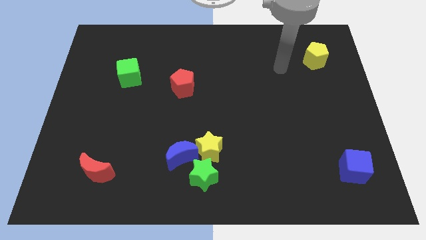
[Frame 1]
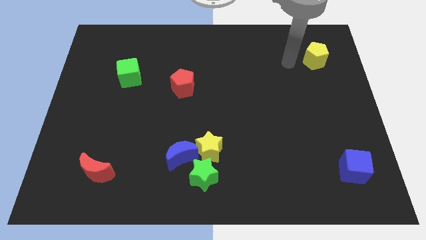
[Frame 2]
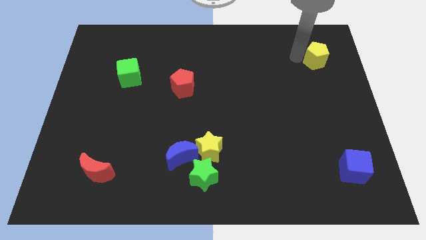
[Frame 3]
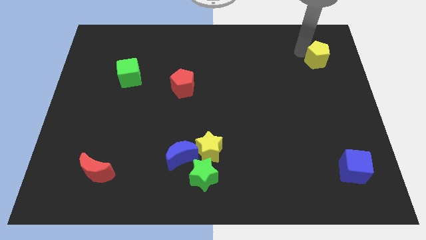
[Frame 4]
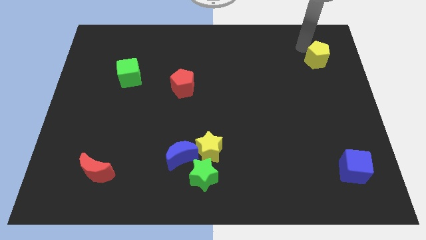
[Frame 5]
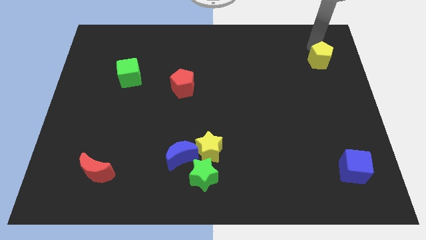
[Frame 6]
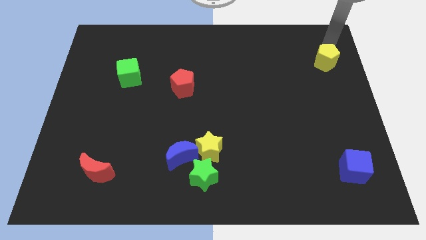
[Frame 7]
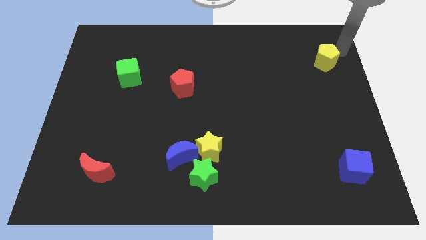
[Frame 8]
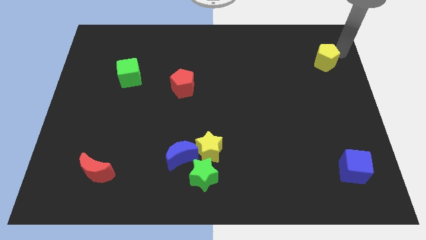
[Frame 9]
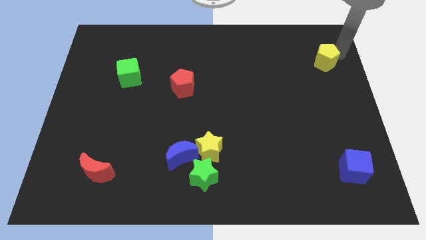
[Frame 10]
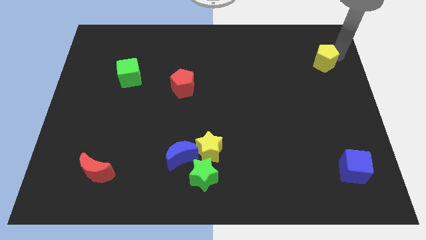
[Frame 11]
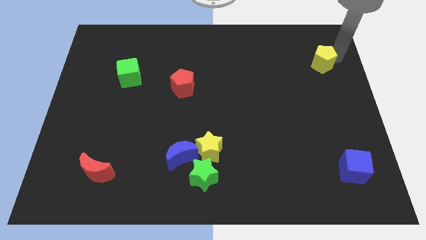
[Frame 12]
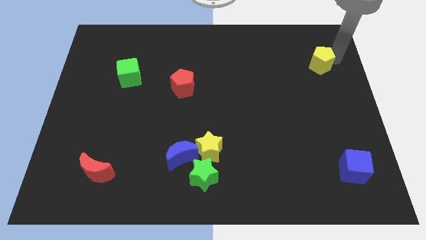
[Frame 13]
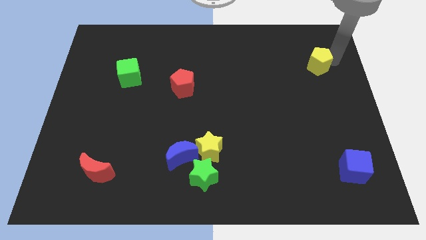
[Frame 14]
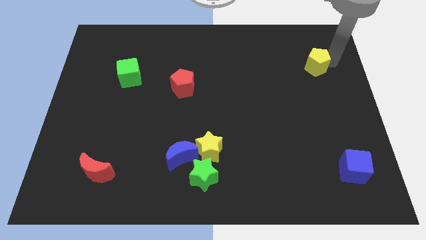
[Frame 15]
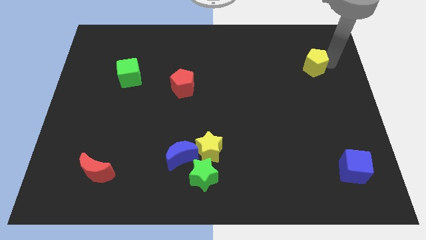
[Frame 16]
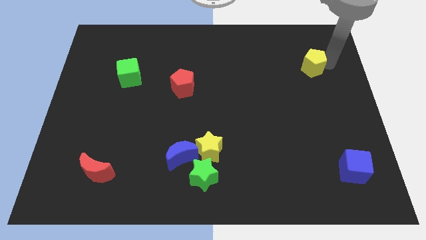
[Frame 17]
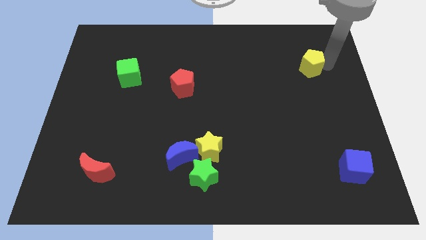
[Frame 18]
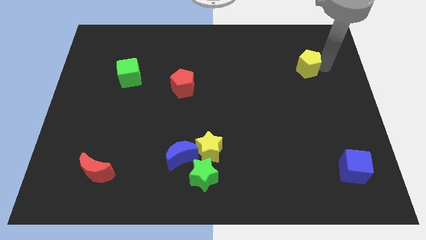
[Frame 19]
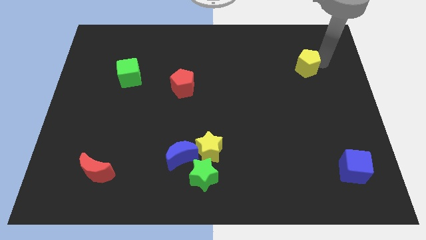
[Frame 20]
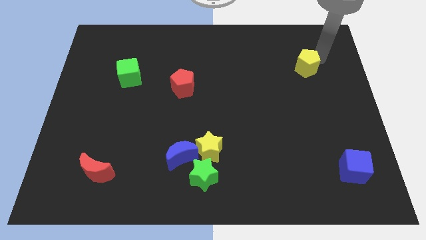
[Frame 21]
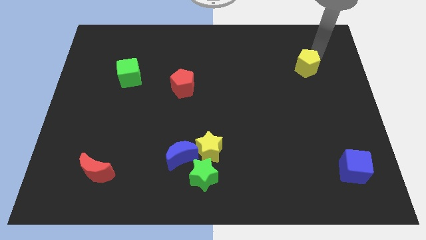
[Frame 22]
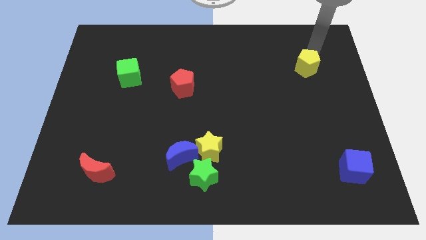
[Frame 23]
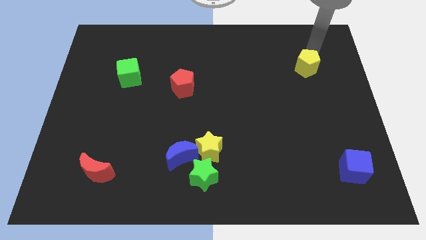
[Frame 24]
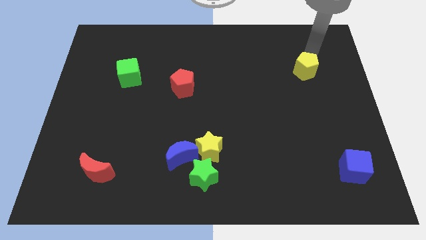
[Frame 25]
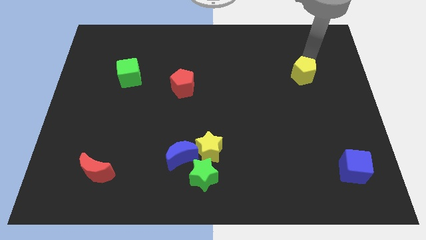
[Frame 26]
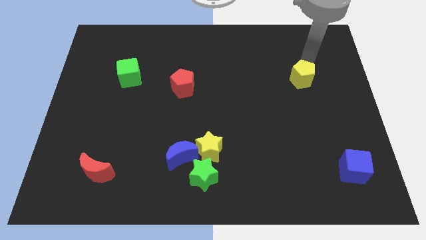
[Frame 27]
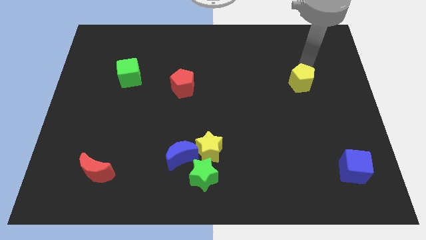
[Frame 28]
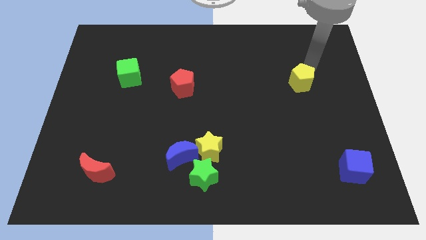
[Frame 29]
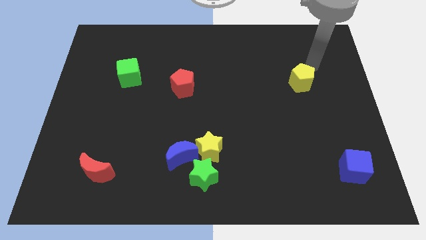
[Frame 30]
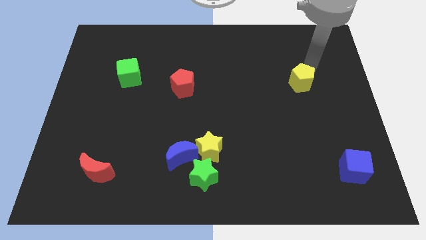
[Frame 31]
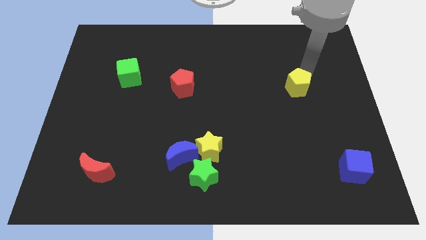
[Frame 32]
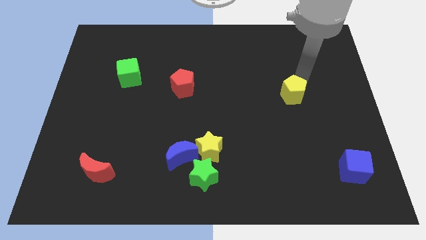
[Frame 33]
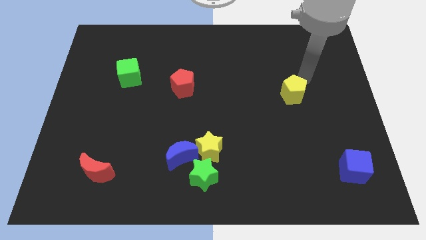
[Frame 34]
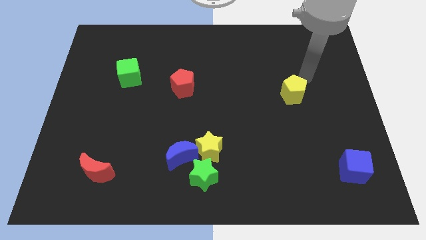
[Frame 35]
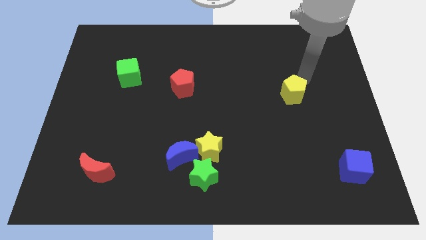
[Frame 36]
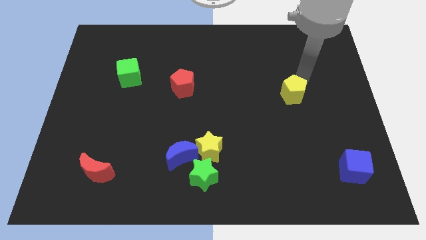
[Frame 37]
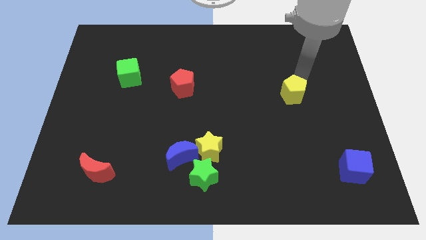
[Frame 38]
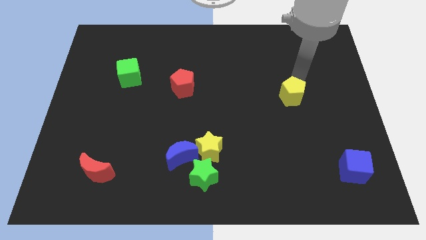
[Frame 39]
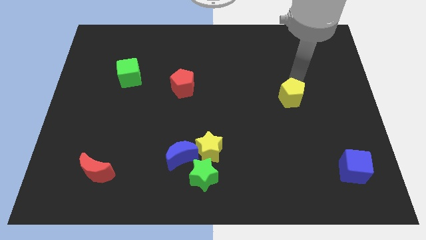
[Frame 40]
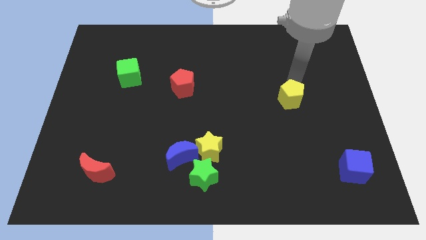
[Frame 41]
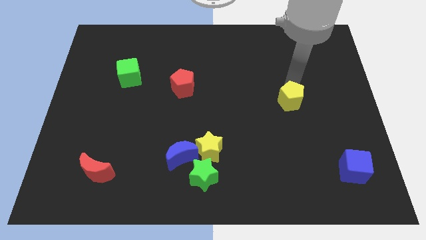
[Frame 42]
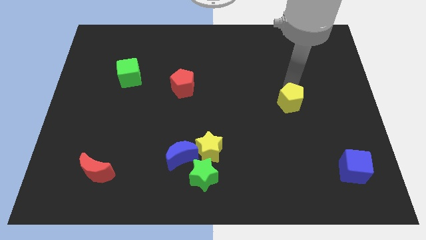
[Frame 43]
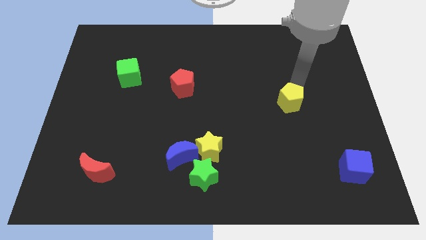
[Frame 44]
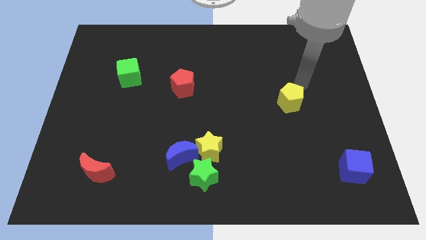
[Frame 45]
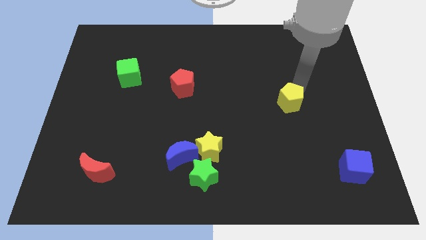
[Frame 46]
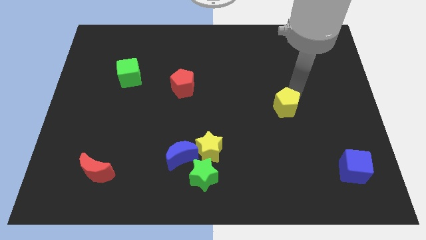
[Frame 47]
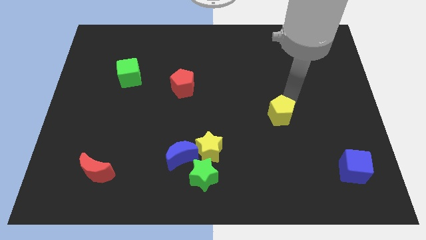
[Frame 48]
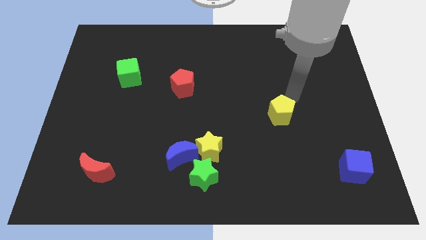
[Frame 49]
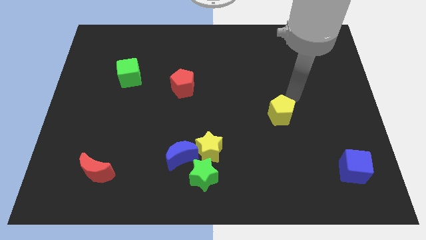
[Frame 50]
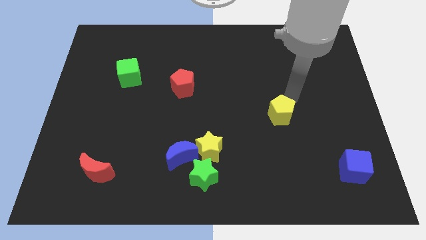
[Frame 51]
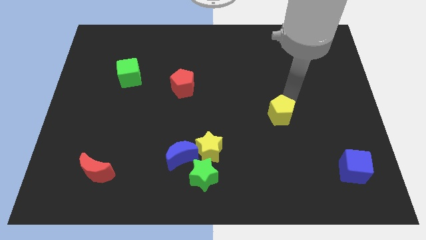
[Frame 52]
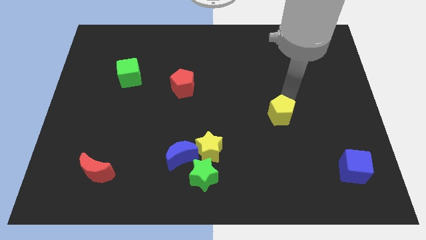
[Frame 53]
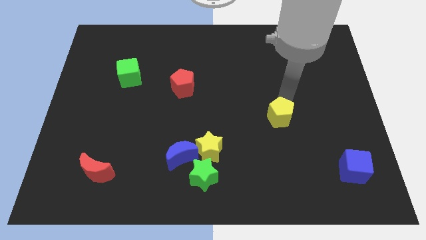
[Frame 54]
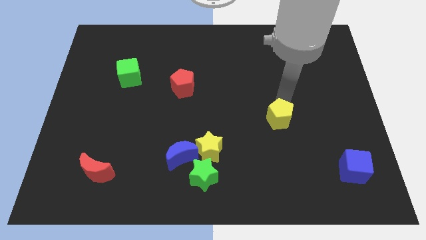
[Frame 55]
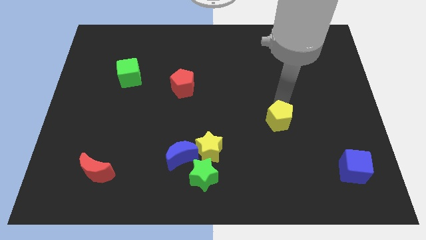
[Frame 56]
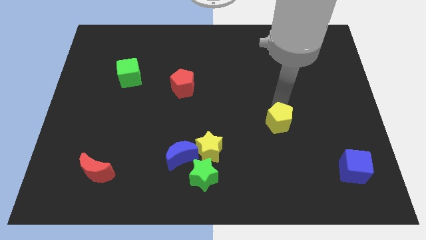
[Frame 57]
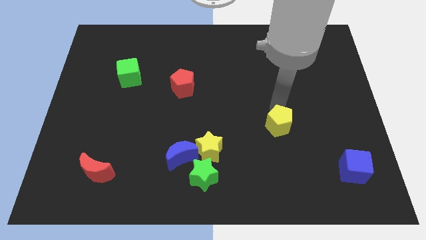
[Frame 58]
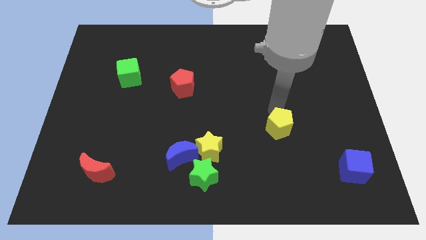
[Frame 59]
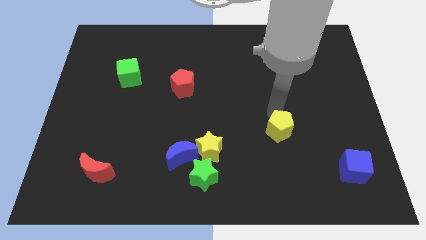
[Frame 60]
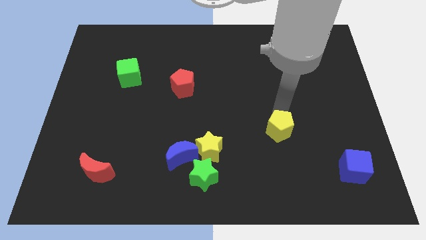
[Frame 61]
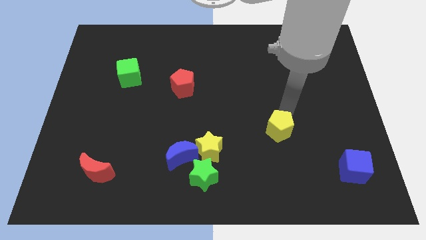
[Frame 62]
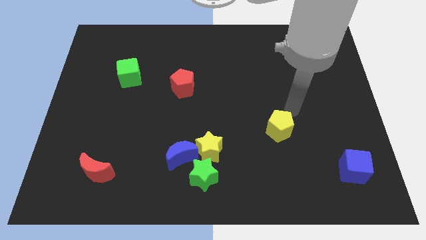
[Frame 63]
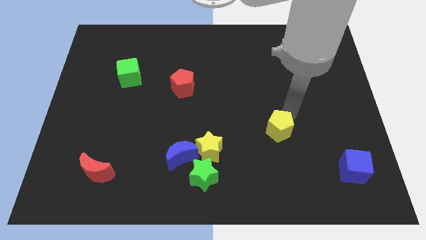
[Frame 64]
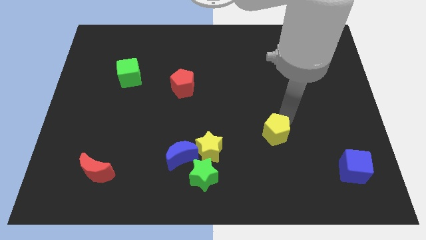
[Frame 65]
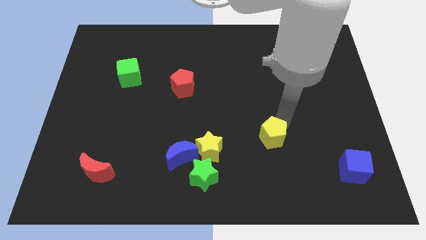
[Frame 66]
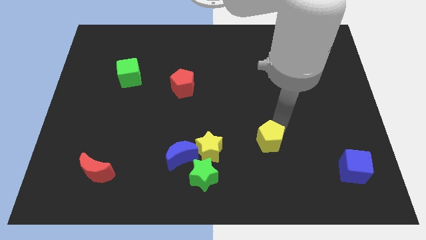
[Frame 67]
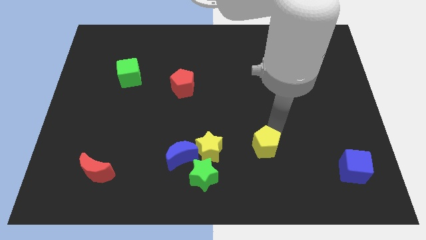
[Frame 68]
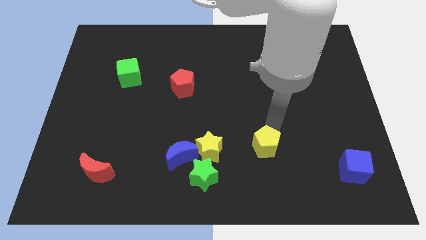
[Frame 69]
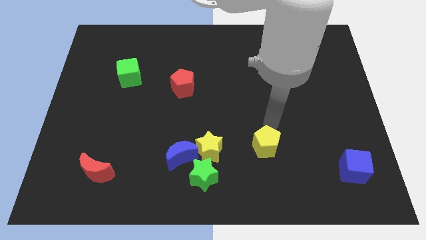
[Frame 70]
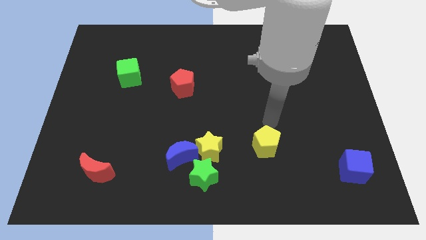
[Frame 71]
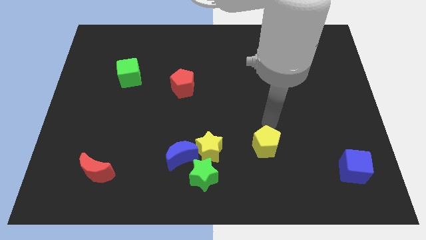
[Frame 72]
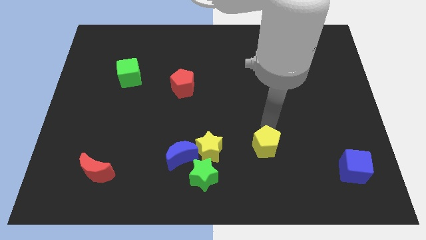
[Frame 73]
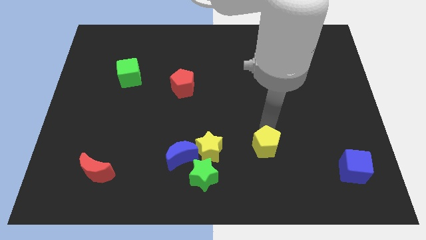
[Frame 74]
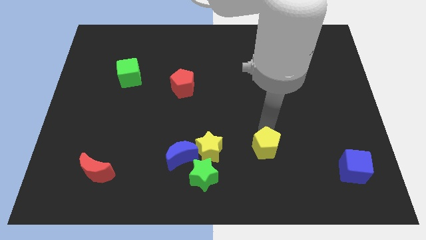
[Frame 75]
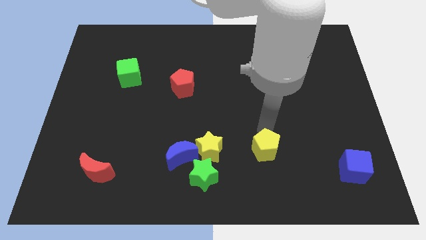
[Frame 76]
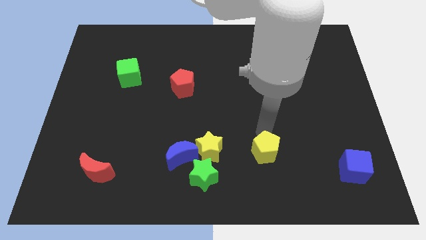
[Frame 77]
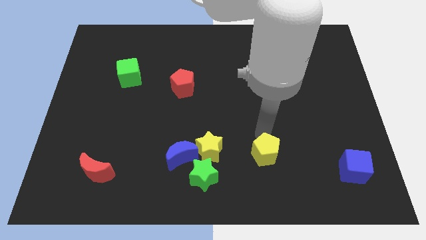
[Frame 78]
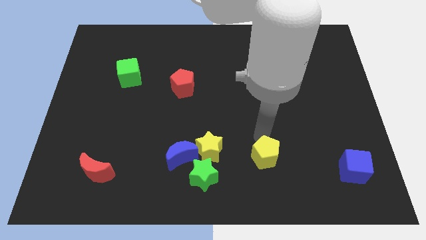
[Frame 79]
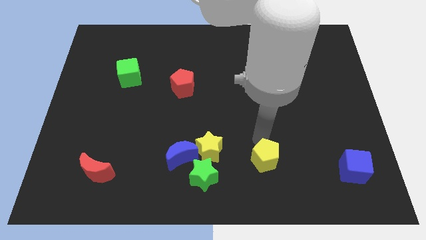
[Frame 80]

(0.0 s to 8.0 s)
put the yellow pentagon to the right side of the green star
